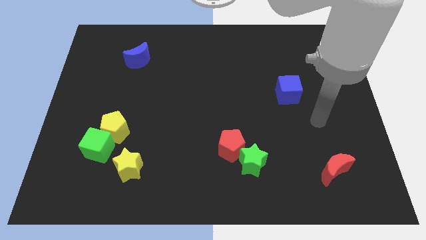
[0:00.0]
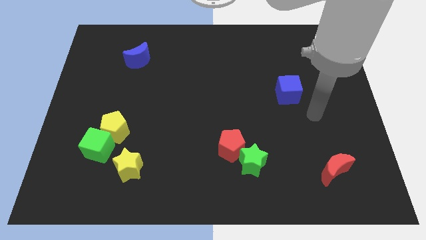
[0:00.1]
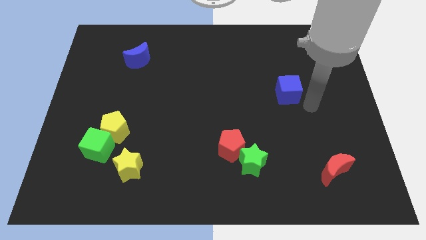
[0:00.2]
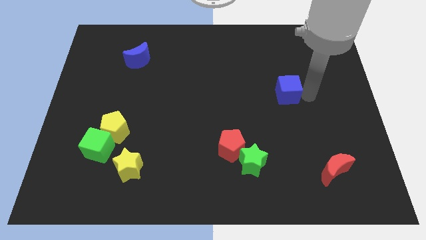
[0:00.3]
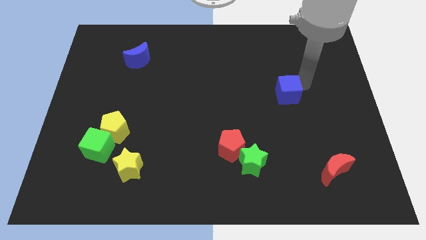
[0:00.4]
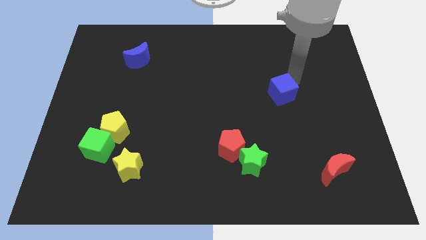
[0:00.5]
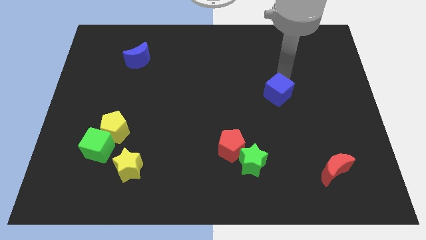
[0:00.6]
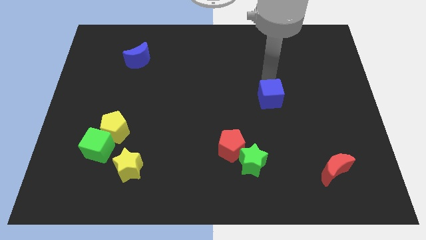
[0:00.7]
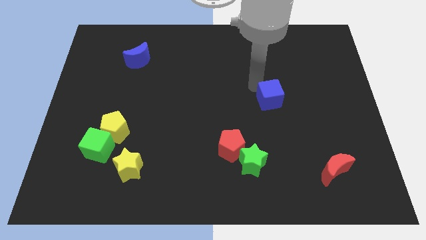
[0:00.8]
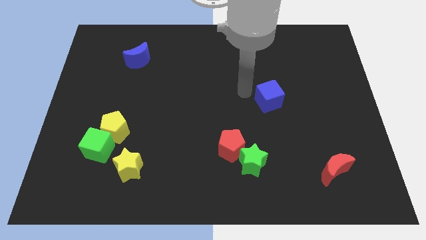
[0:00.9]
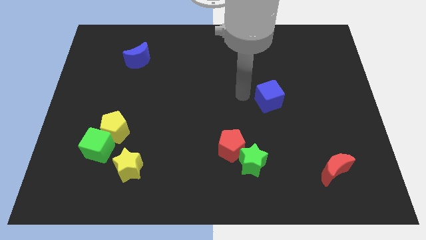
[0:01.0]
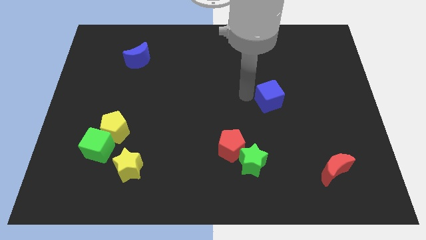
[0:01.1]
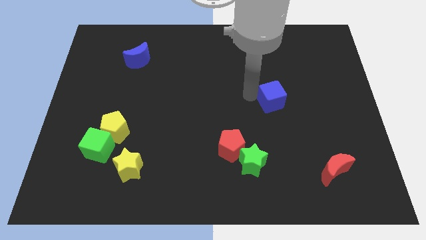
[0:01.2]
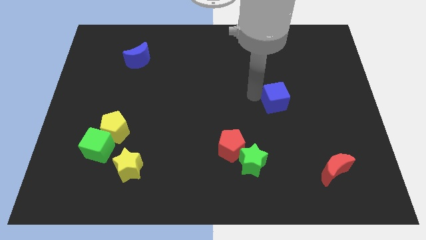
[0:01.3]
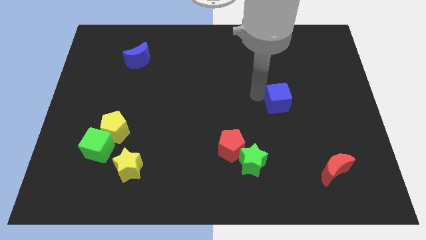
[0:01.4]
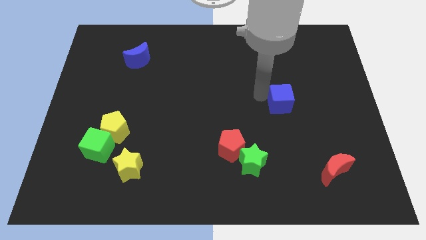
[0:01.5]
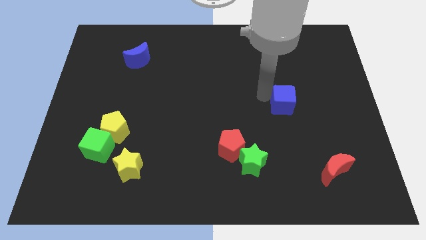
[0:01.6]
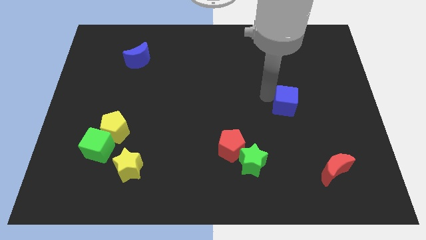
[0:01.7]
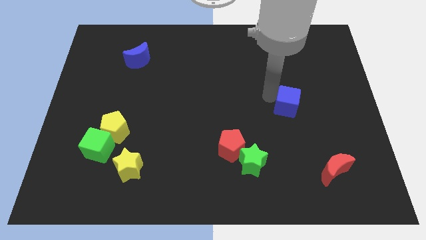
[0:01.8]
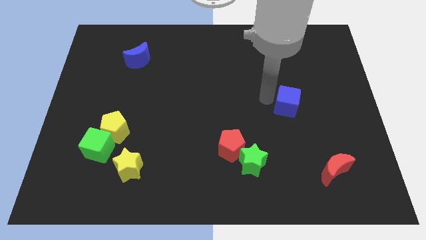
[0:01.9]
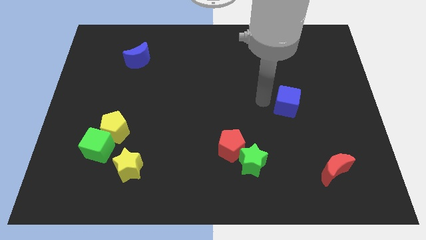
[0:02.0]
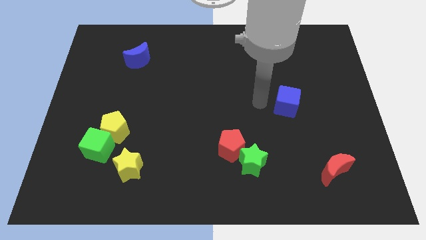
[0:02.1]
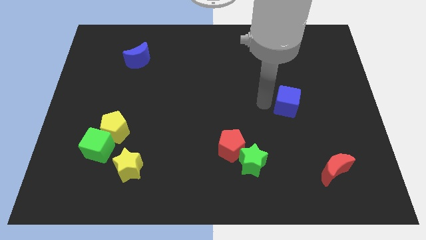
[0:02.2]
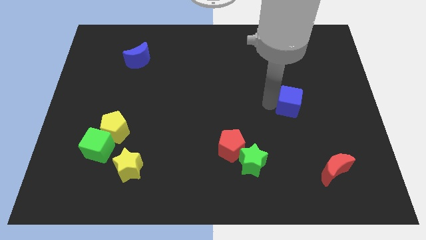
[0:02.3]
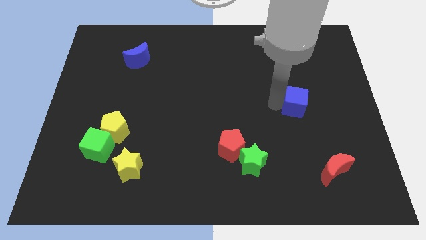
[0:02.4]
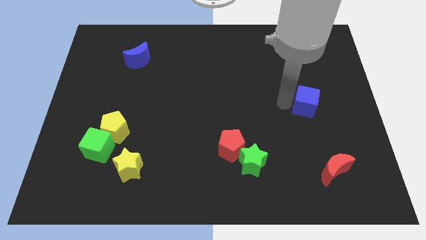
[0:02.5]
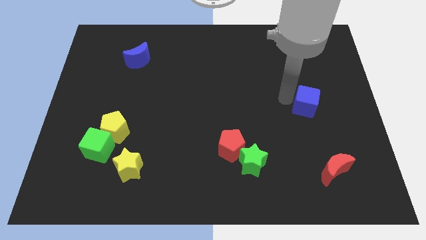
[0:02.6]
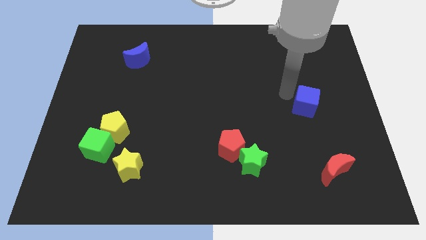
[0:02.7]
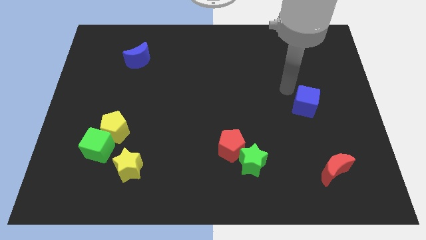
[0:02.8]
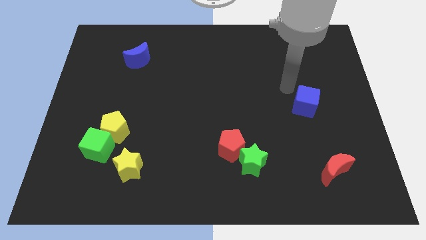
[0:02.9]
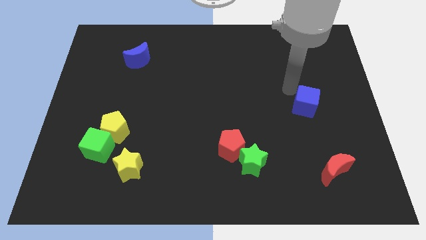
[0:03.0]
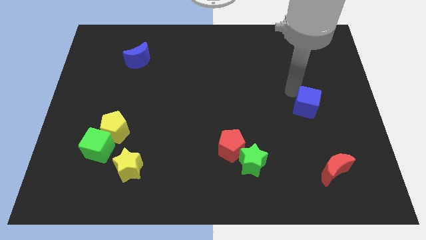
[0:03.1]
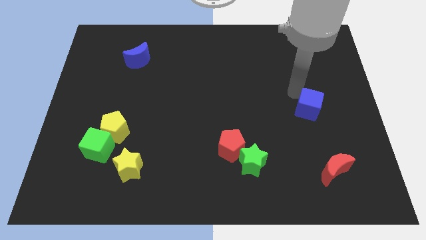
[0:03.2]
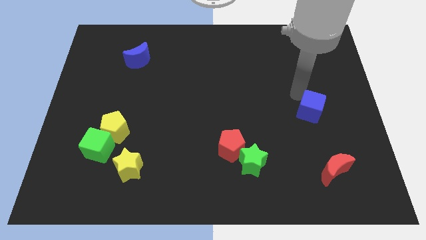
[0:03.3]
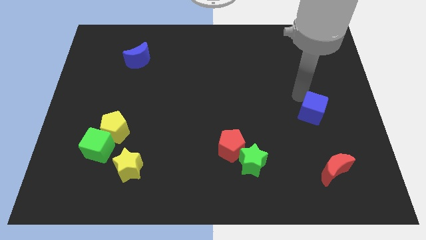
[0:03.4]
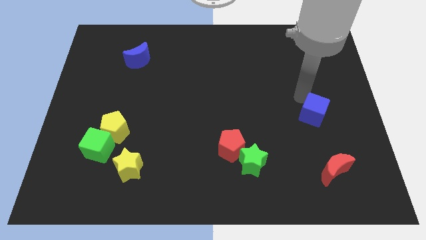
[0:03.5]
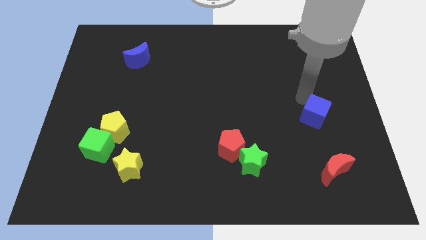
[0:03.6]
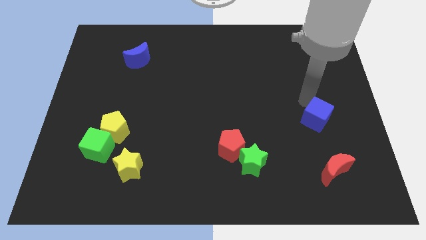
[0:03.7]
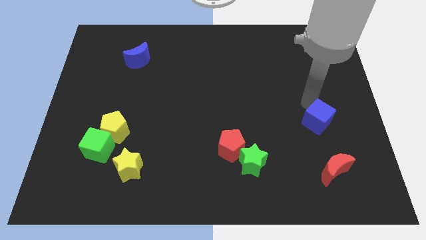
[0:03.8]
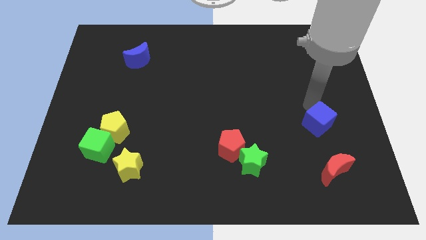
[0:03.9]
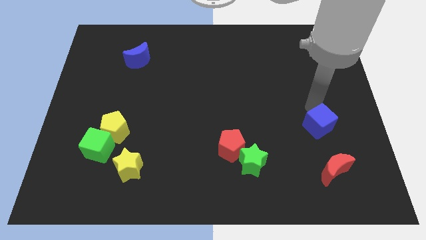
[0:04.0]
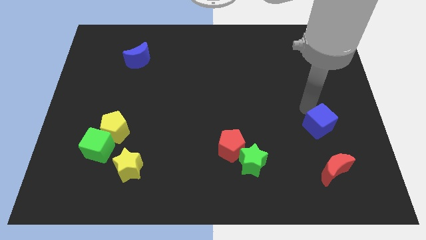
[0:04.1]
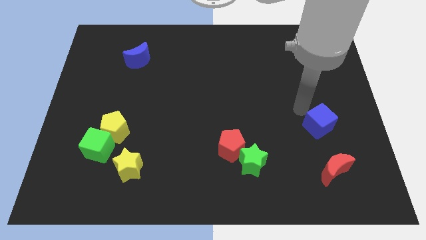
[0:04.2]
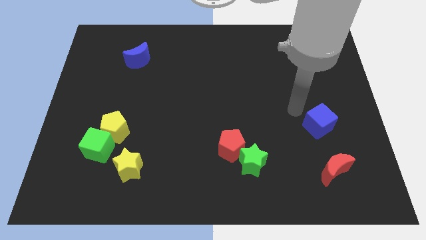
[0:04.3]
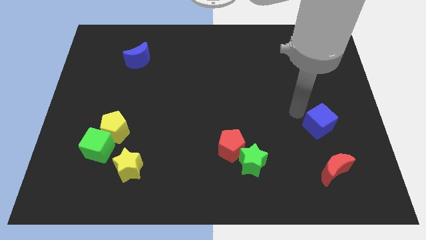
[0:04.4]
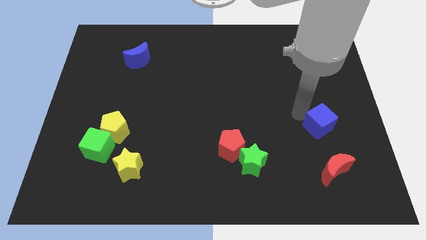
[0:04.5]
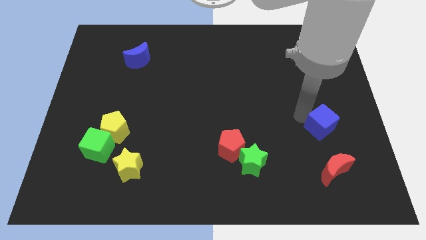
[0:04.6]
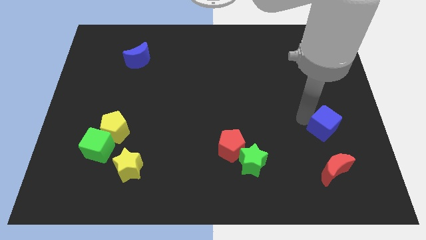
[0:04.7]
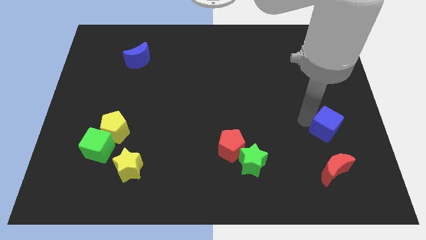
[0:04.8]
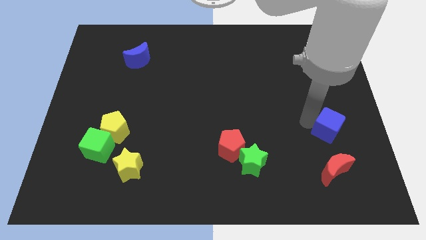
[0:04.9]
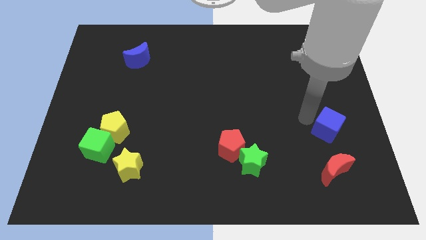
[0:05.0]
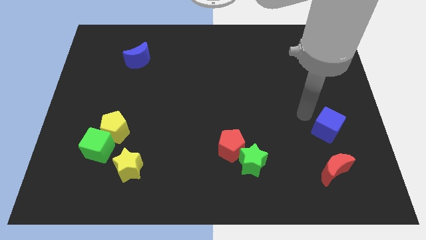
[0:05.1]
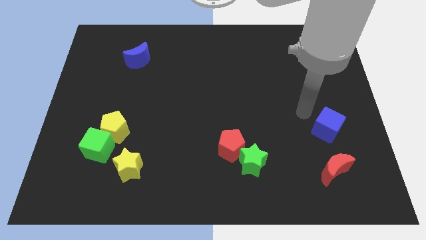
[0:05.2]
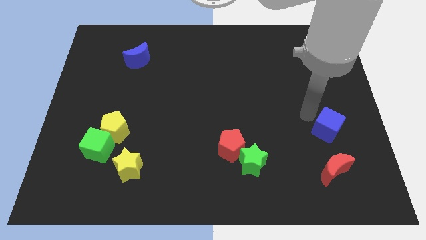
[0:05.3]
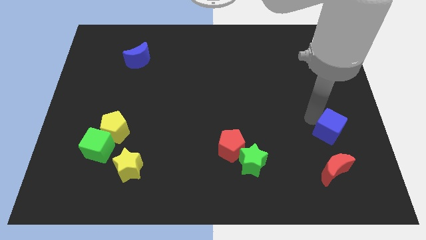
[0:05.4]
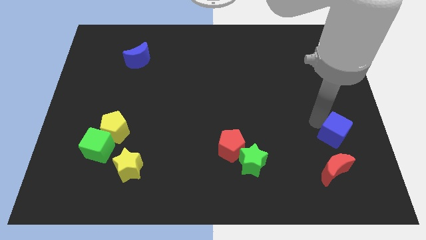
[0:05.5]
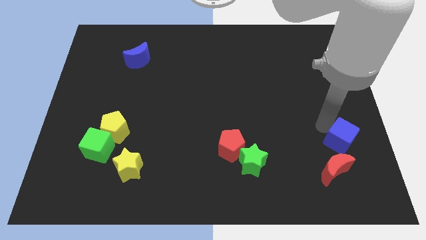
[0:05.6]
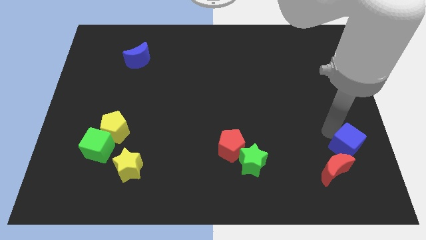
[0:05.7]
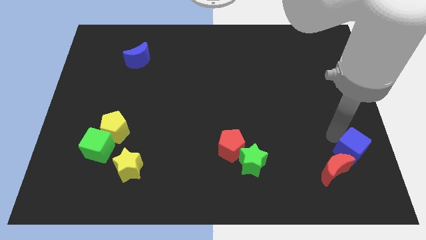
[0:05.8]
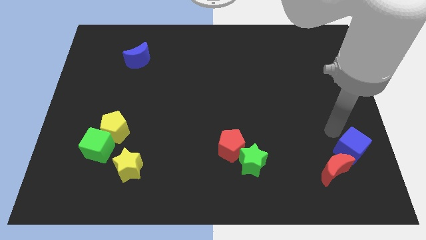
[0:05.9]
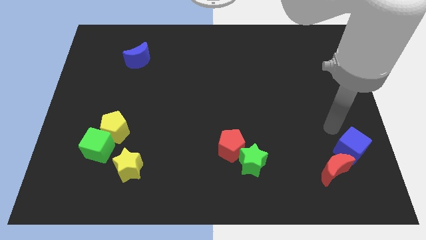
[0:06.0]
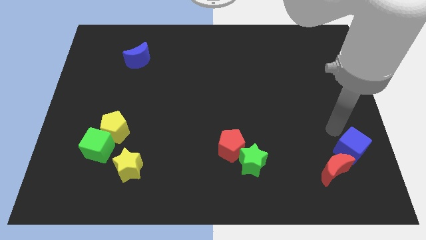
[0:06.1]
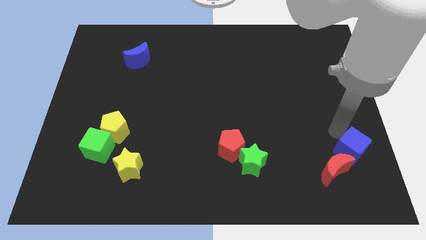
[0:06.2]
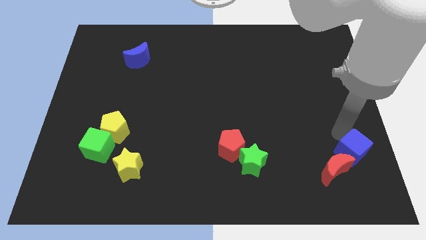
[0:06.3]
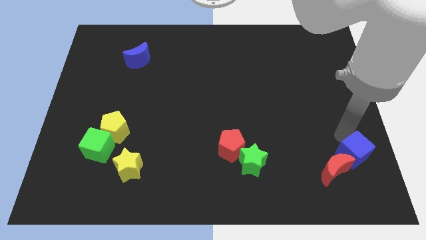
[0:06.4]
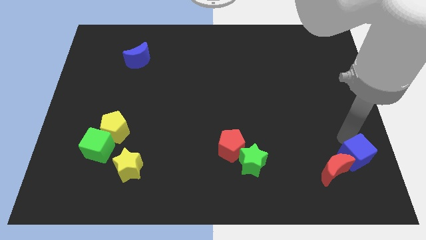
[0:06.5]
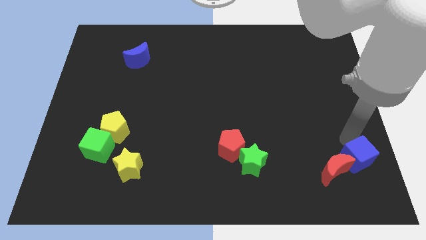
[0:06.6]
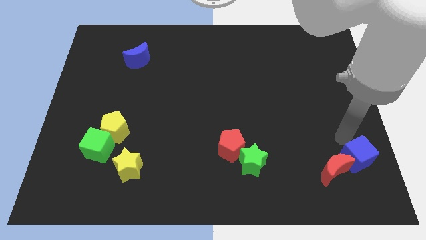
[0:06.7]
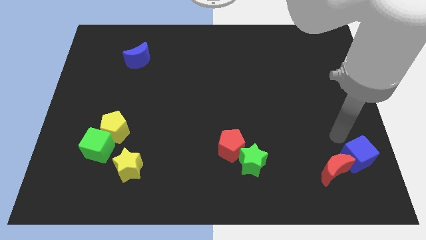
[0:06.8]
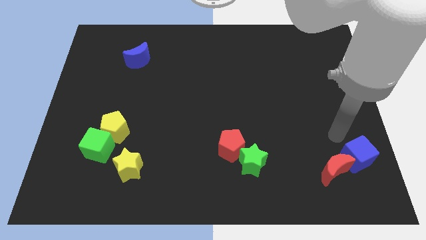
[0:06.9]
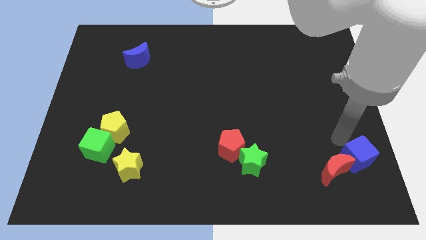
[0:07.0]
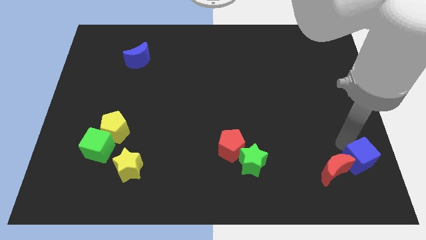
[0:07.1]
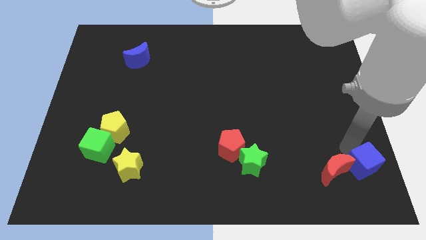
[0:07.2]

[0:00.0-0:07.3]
move the blue cube to the bottom right of the board
